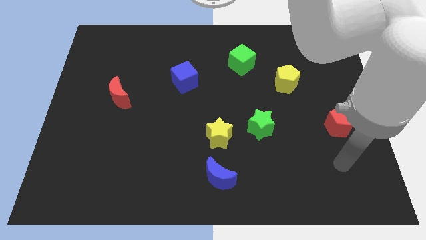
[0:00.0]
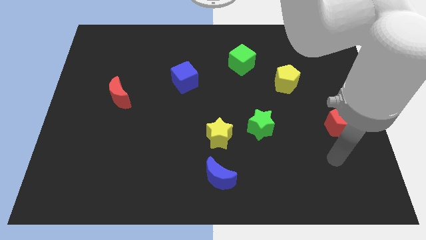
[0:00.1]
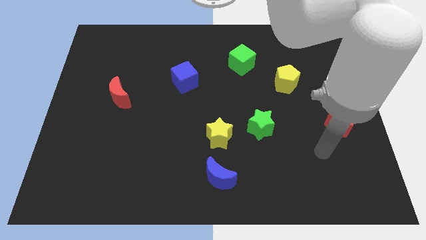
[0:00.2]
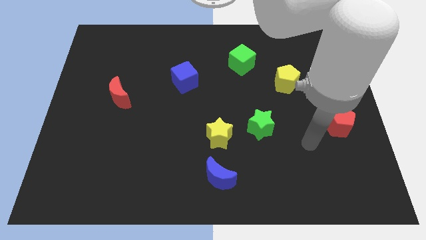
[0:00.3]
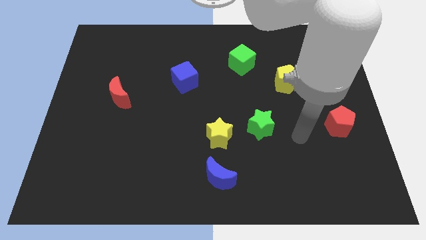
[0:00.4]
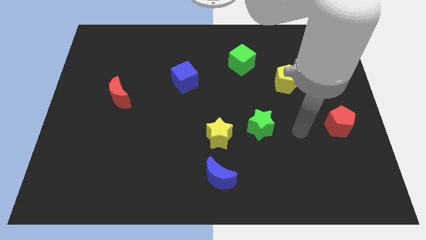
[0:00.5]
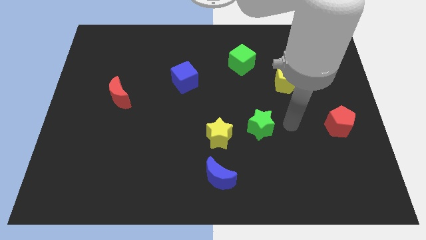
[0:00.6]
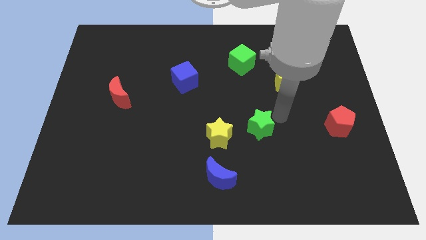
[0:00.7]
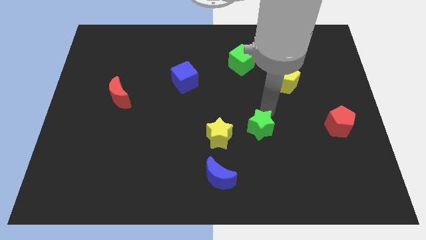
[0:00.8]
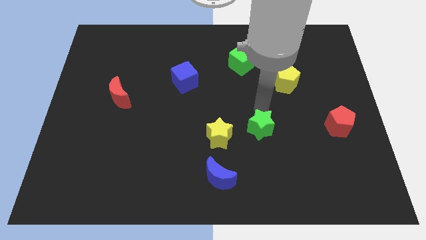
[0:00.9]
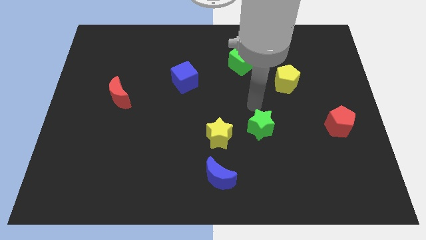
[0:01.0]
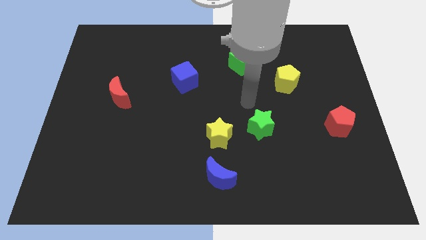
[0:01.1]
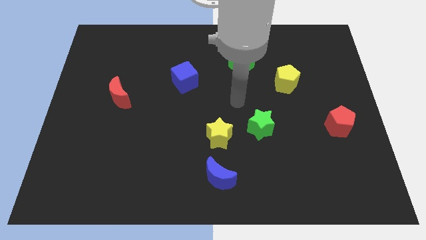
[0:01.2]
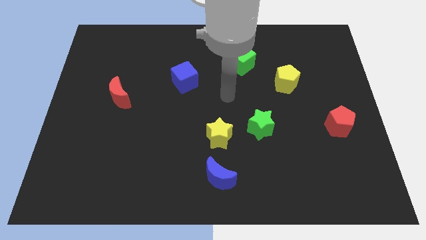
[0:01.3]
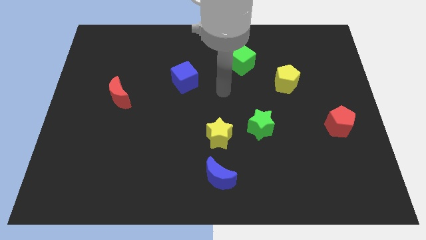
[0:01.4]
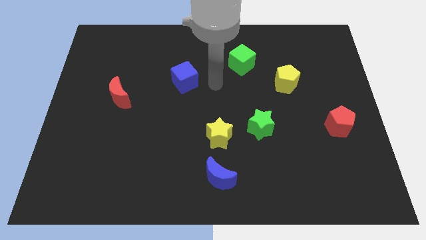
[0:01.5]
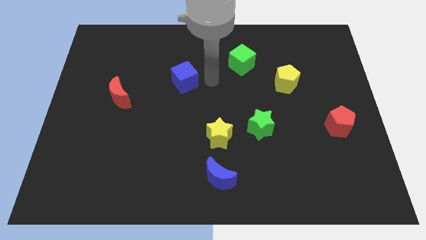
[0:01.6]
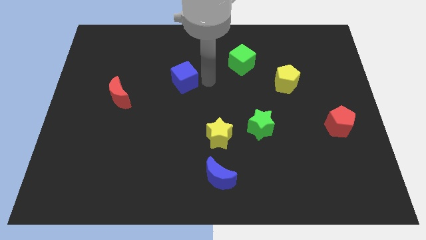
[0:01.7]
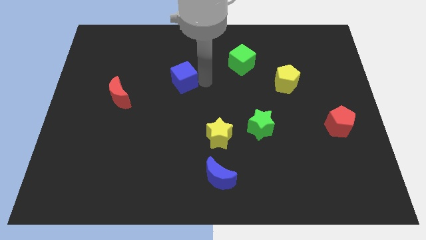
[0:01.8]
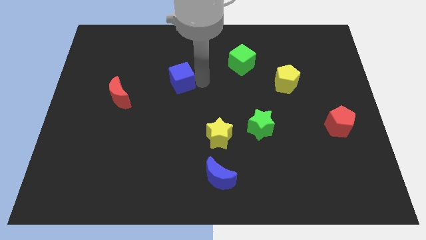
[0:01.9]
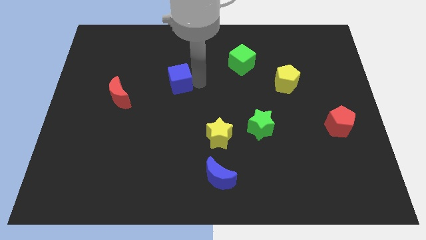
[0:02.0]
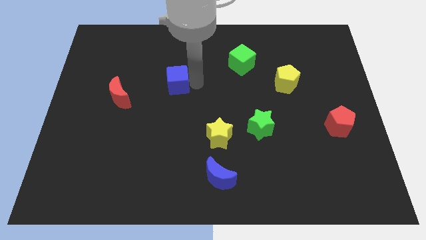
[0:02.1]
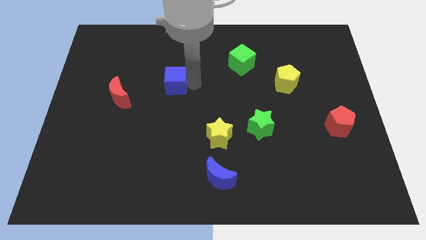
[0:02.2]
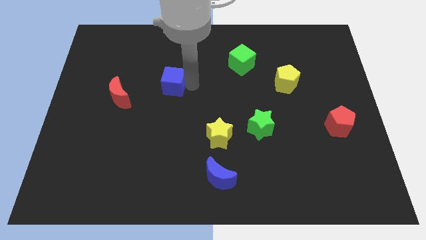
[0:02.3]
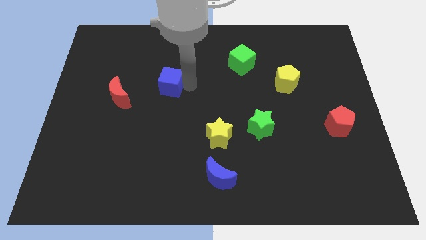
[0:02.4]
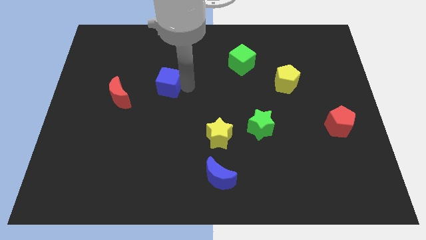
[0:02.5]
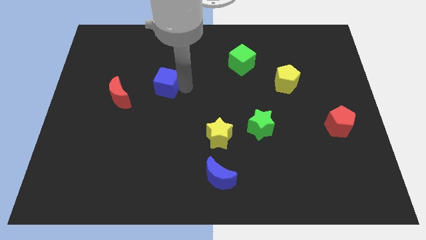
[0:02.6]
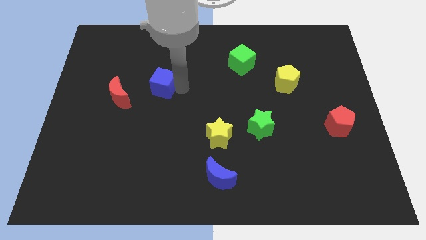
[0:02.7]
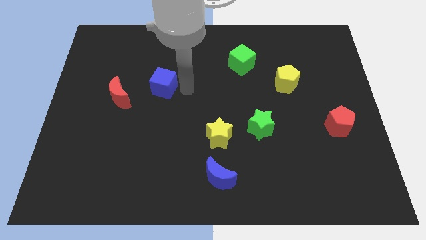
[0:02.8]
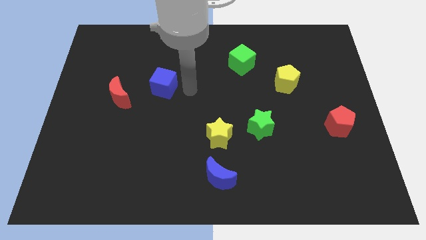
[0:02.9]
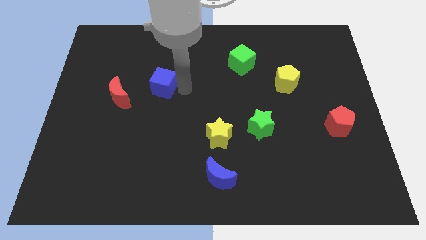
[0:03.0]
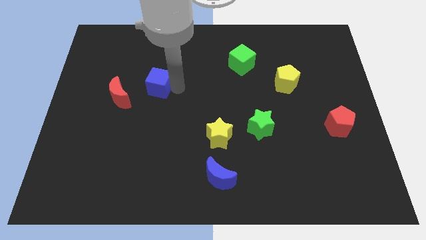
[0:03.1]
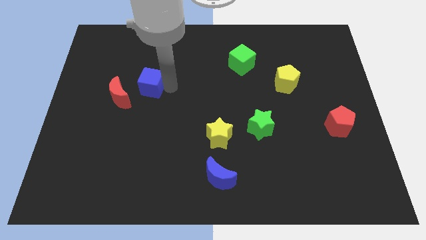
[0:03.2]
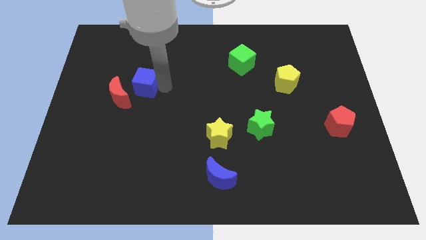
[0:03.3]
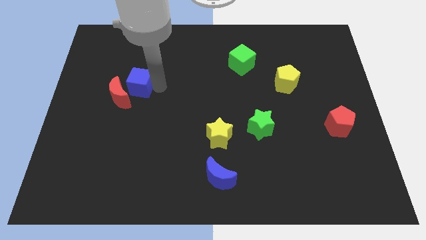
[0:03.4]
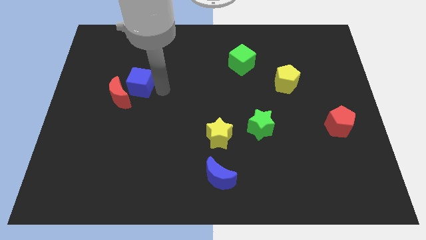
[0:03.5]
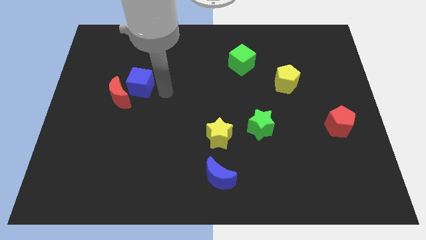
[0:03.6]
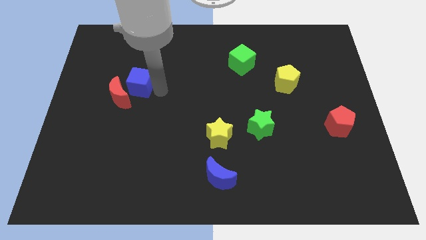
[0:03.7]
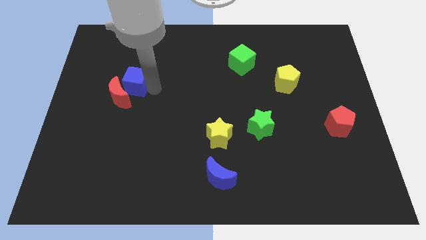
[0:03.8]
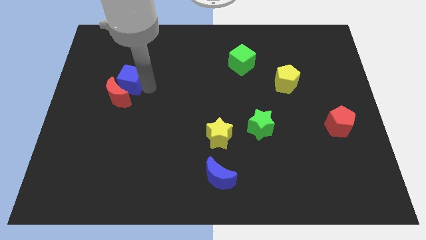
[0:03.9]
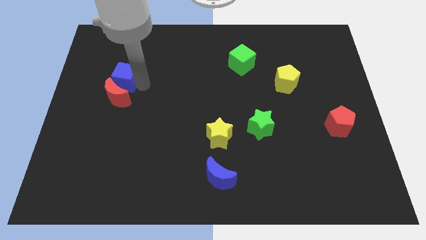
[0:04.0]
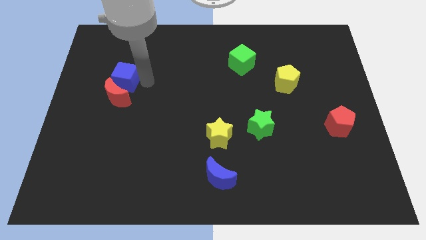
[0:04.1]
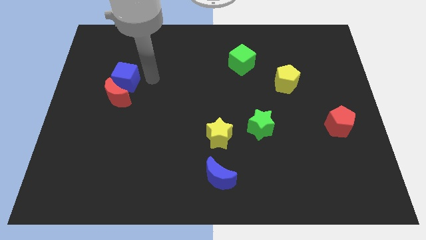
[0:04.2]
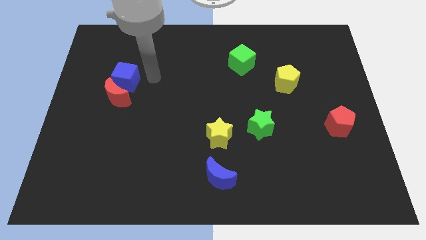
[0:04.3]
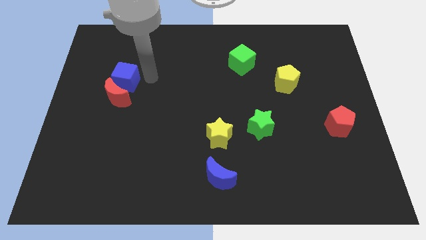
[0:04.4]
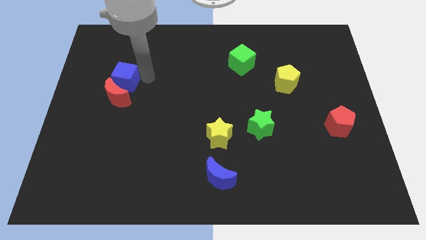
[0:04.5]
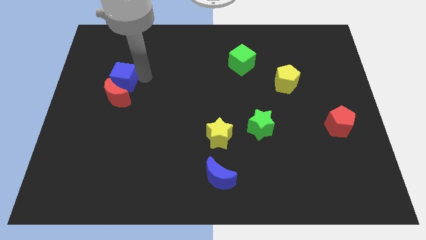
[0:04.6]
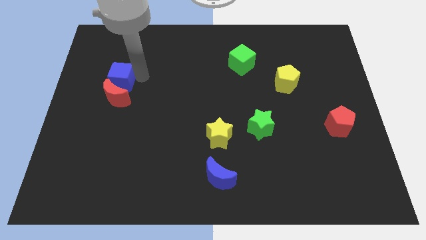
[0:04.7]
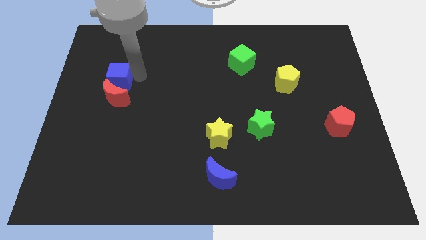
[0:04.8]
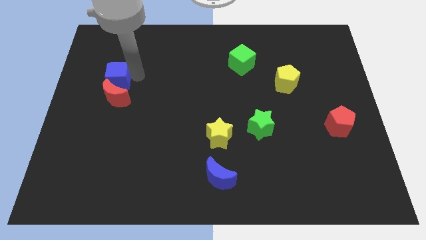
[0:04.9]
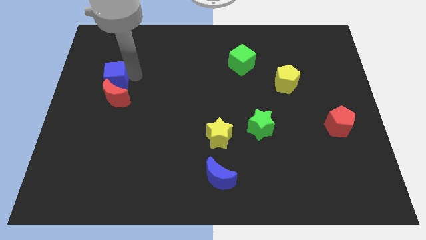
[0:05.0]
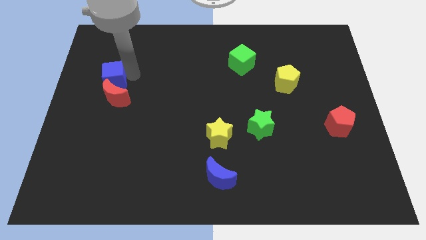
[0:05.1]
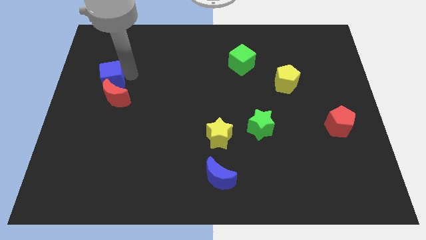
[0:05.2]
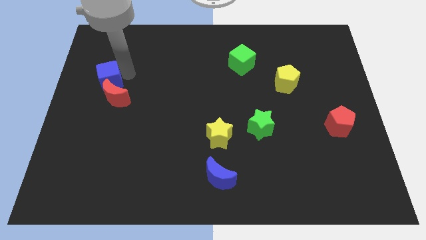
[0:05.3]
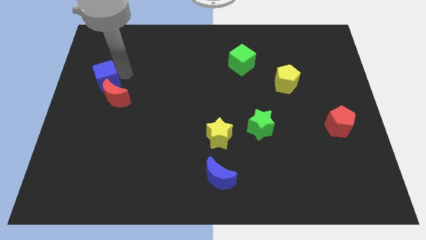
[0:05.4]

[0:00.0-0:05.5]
slide the blue cube to the center left
